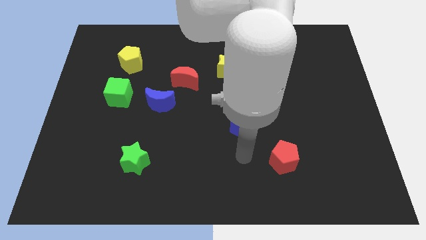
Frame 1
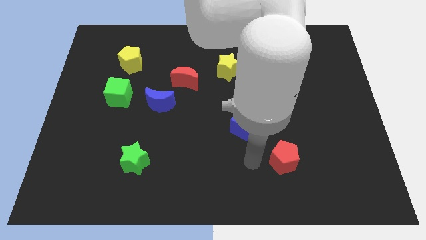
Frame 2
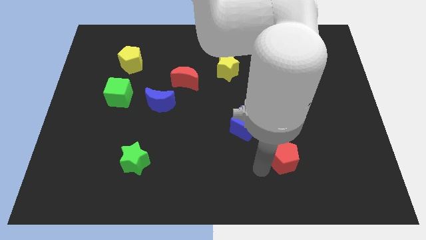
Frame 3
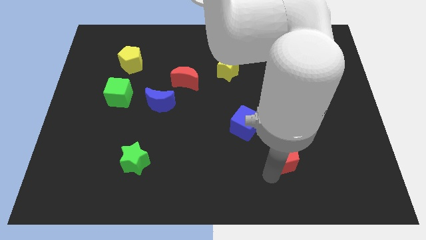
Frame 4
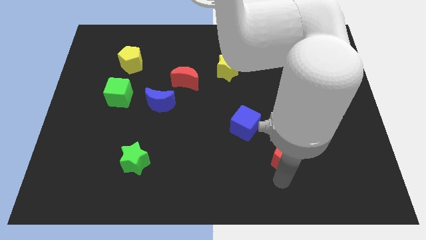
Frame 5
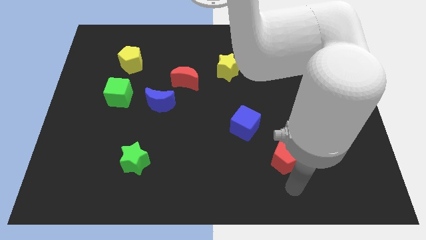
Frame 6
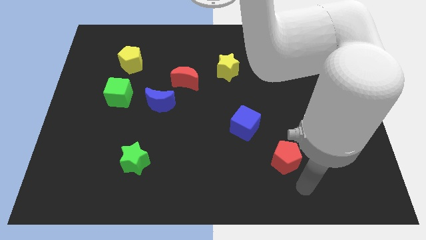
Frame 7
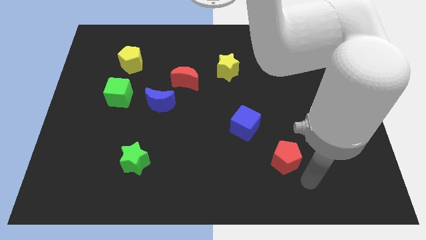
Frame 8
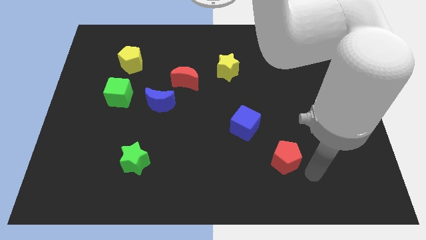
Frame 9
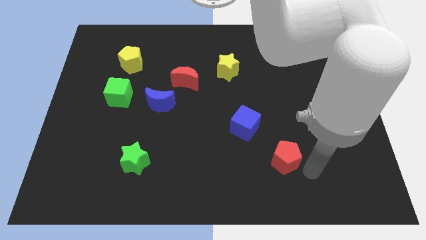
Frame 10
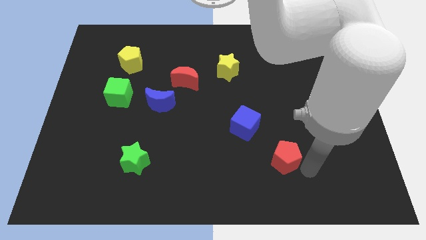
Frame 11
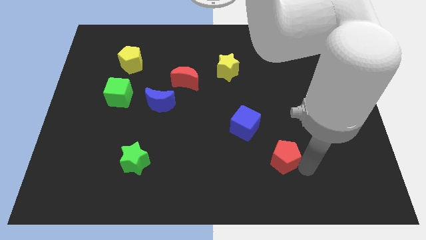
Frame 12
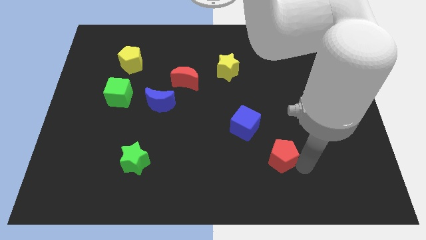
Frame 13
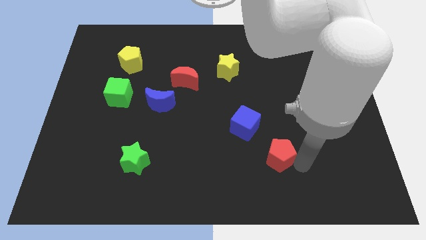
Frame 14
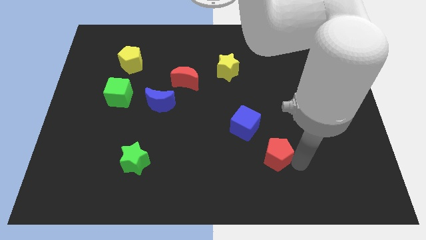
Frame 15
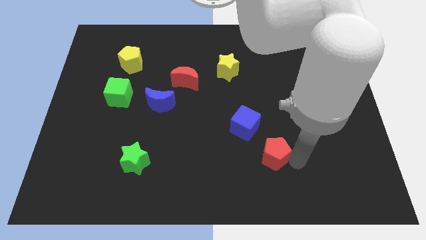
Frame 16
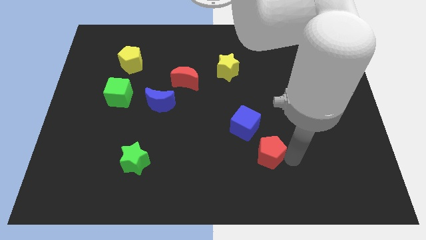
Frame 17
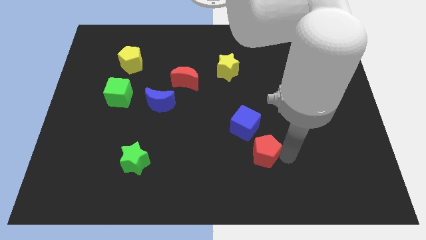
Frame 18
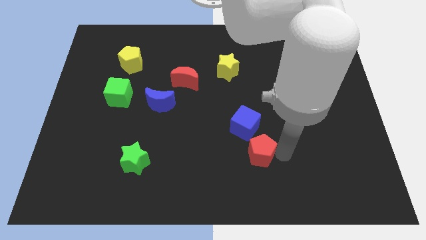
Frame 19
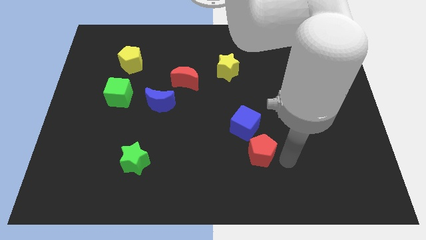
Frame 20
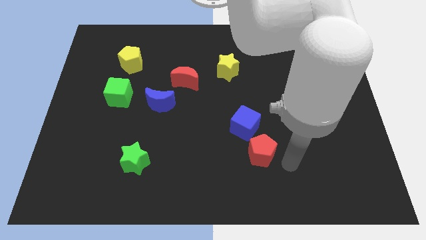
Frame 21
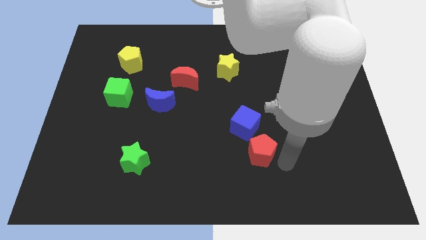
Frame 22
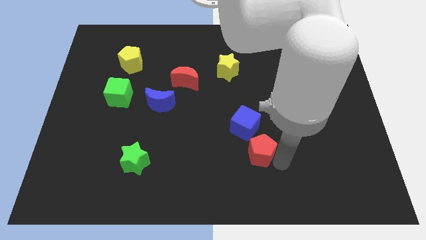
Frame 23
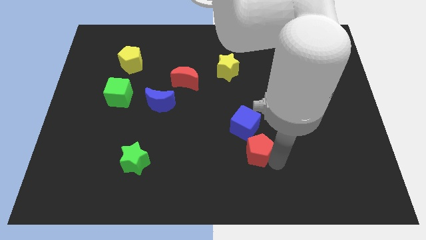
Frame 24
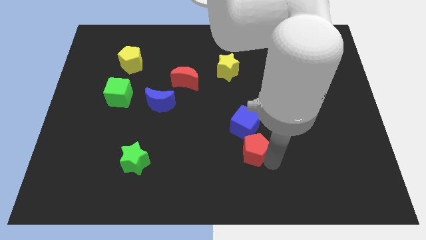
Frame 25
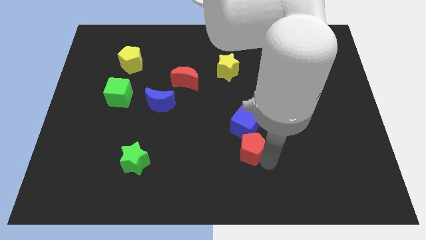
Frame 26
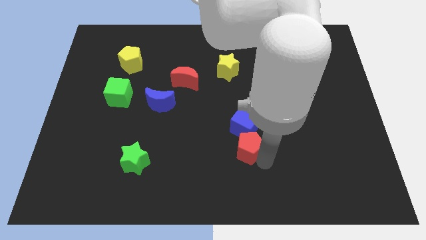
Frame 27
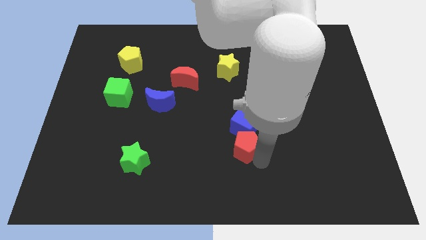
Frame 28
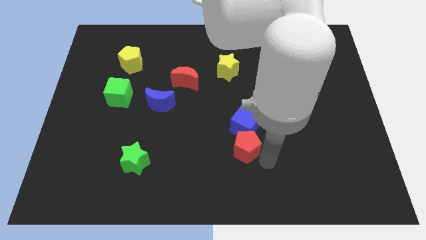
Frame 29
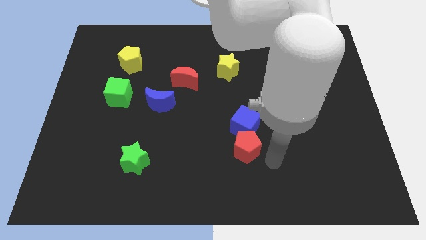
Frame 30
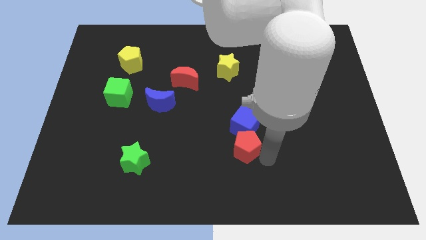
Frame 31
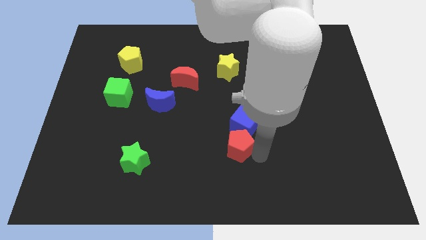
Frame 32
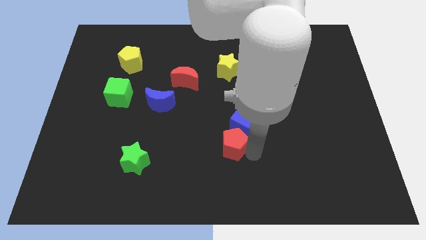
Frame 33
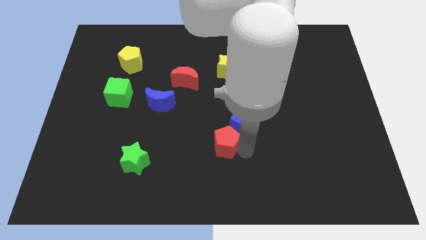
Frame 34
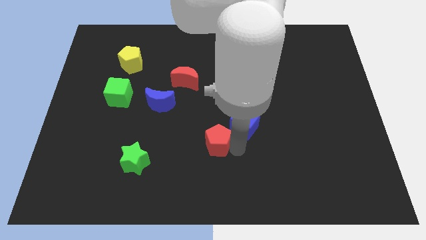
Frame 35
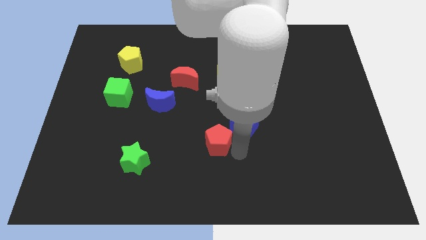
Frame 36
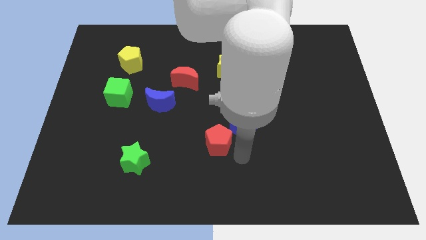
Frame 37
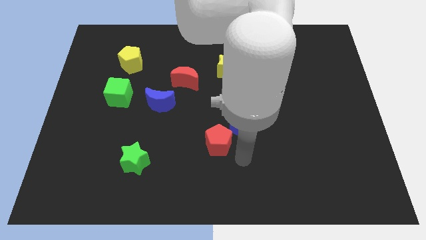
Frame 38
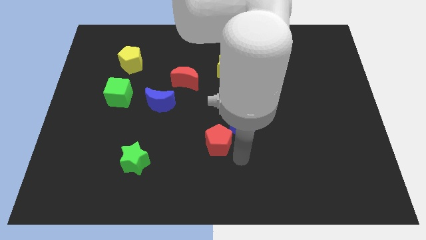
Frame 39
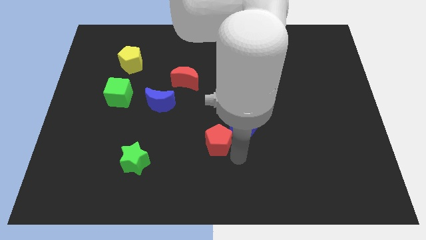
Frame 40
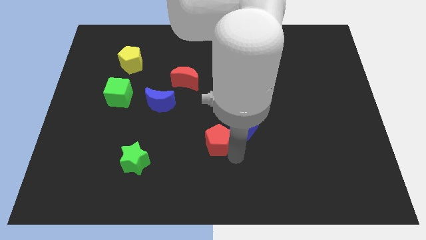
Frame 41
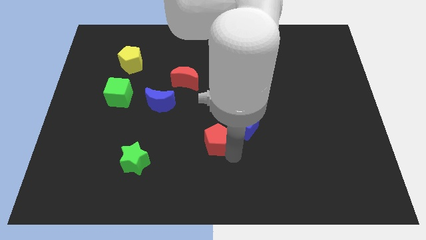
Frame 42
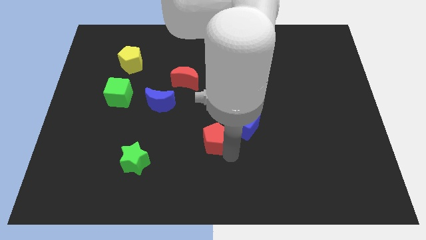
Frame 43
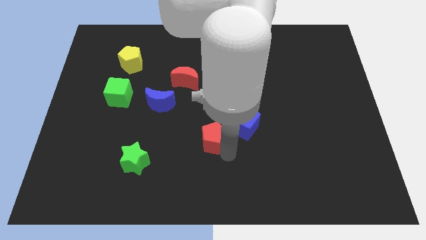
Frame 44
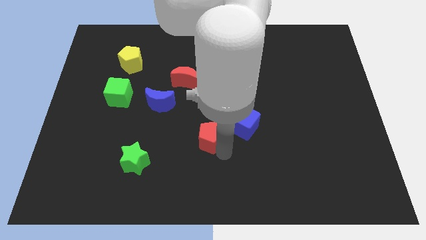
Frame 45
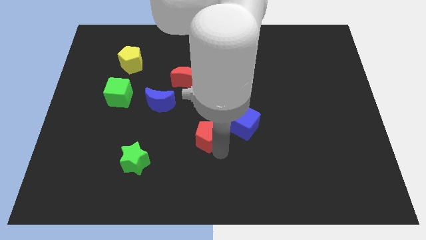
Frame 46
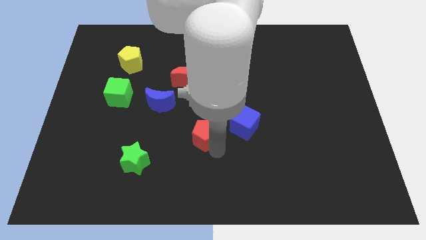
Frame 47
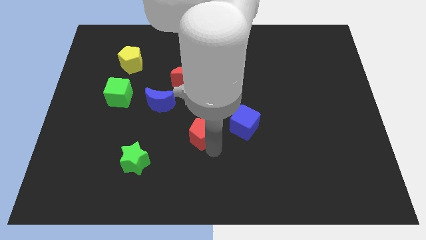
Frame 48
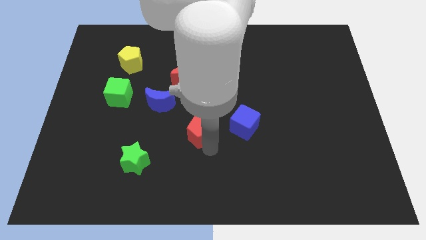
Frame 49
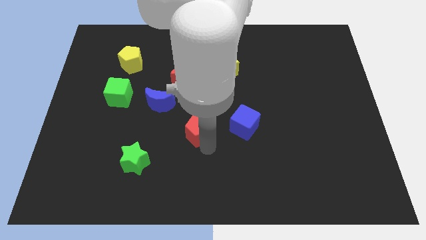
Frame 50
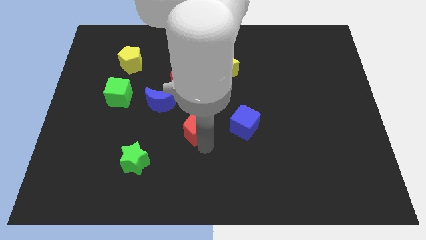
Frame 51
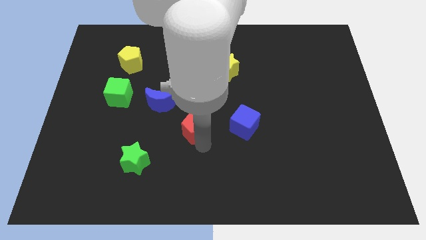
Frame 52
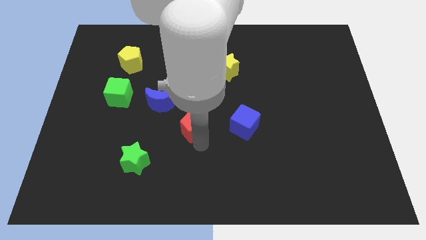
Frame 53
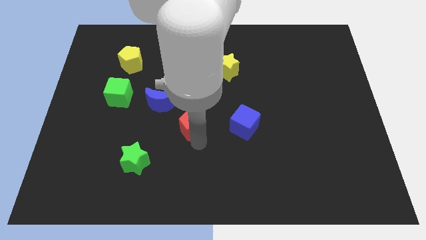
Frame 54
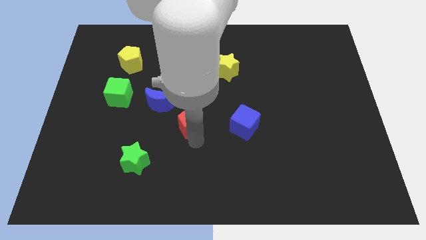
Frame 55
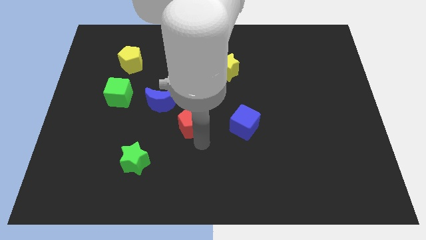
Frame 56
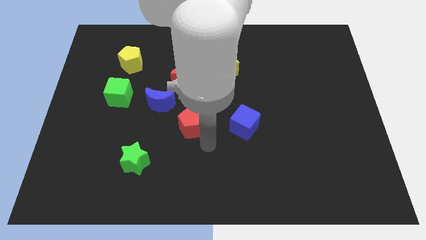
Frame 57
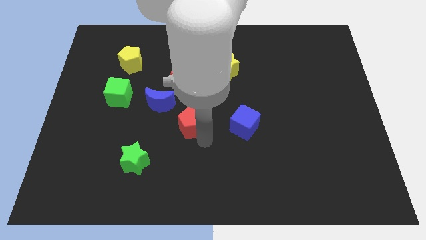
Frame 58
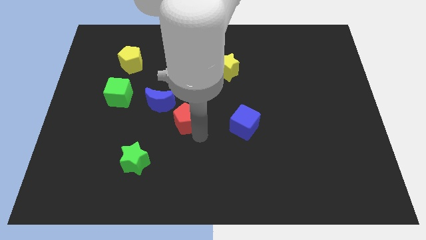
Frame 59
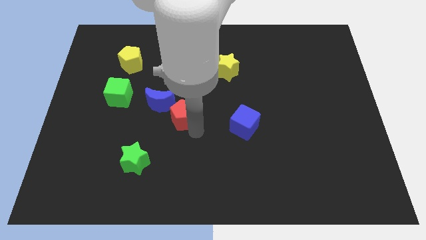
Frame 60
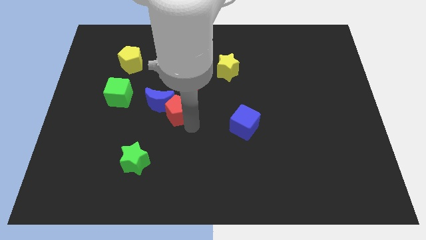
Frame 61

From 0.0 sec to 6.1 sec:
slide the red pentagon to the blue moon

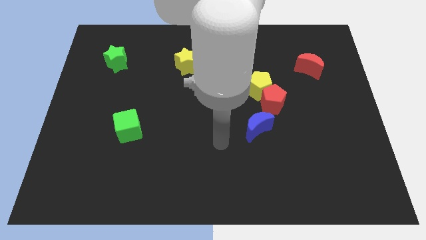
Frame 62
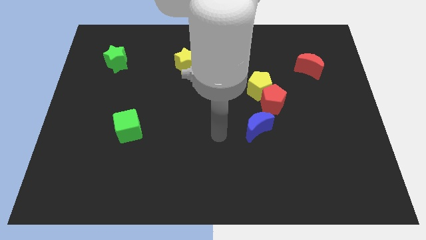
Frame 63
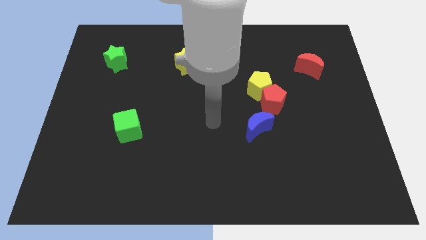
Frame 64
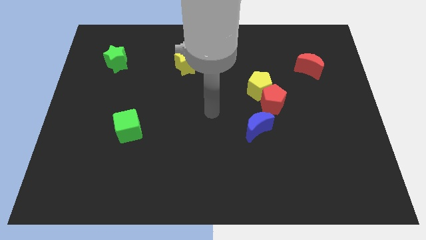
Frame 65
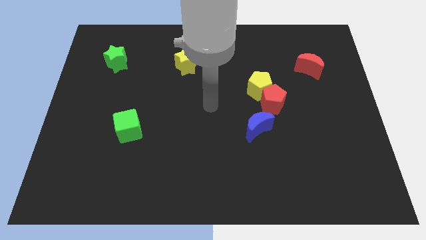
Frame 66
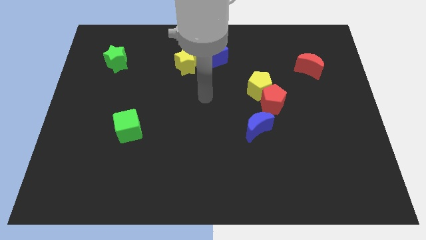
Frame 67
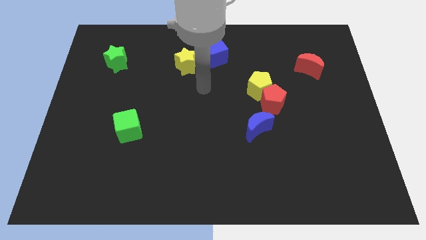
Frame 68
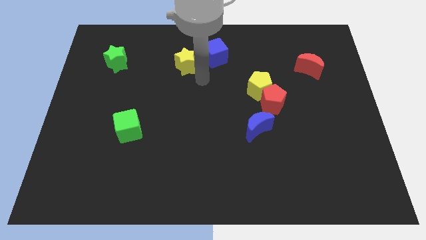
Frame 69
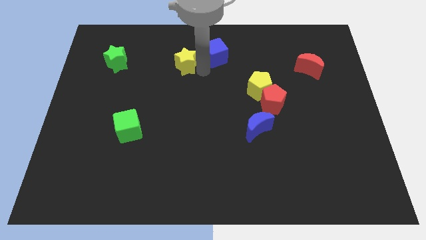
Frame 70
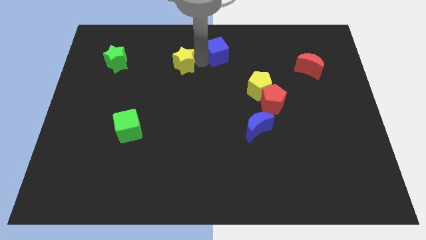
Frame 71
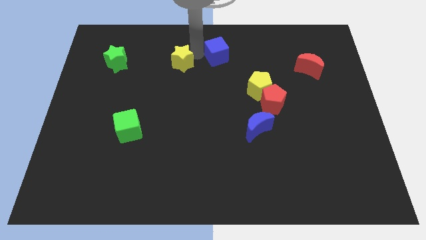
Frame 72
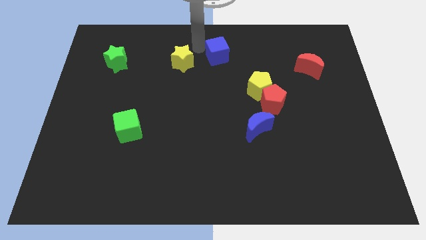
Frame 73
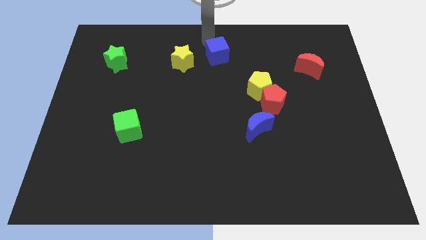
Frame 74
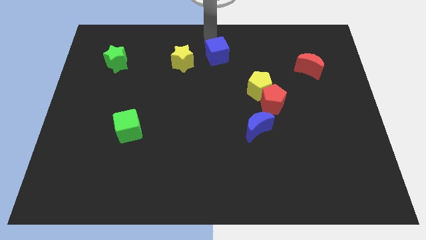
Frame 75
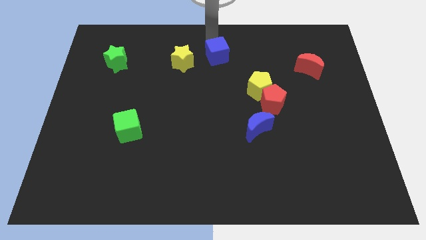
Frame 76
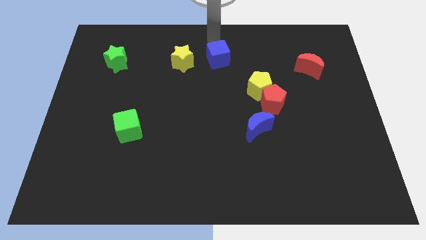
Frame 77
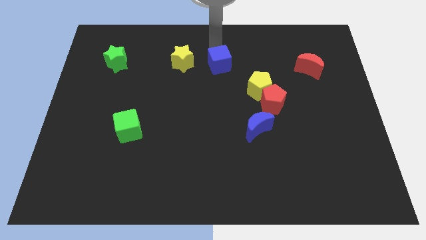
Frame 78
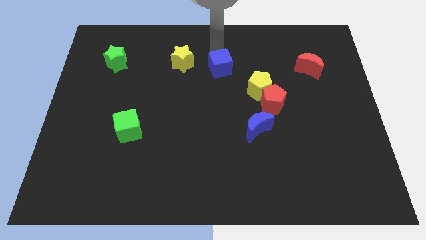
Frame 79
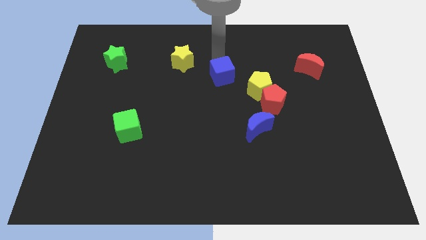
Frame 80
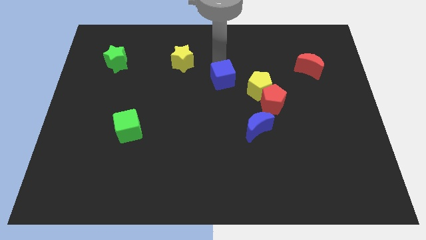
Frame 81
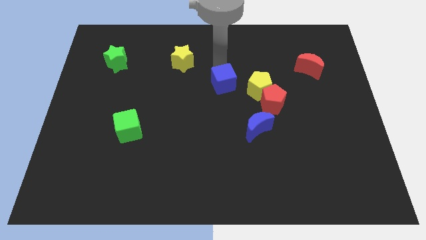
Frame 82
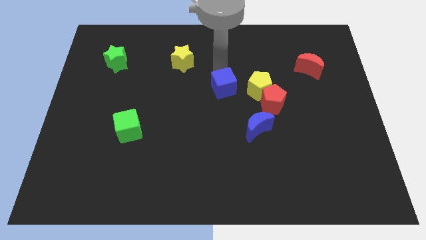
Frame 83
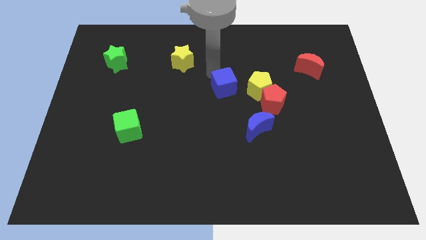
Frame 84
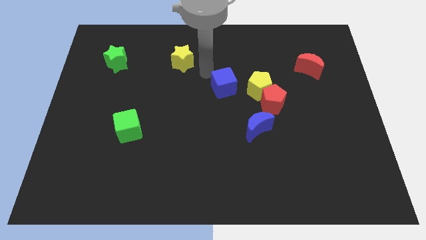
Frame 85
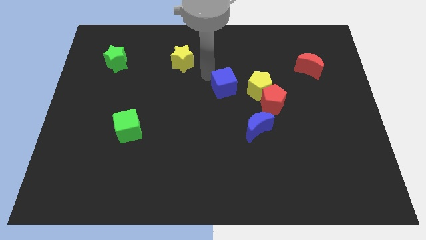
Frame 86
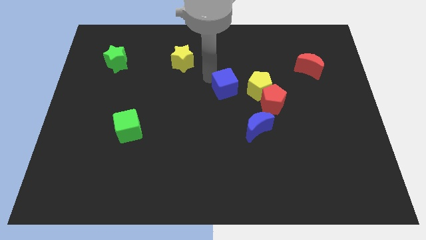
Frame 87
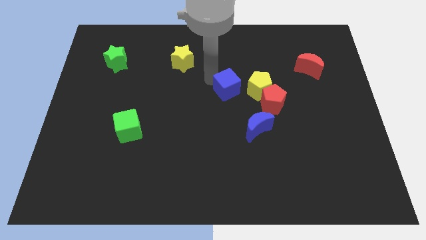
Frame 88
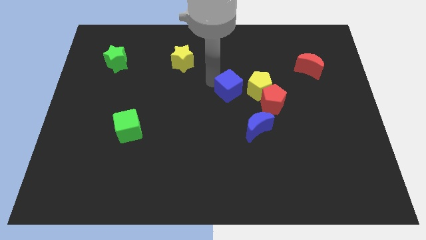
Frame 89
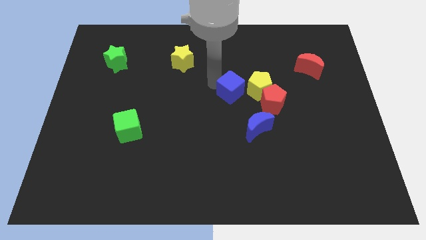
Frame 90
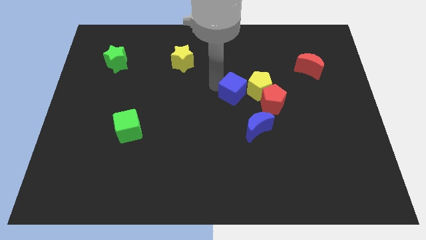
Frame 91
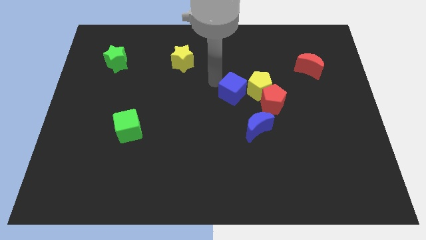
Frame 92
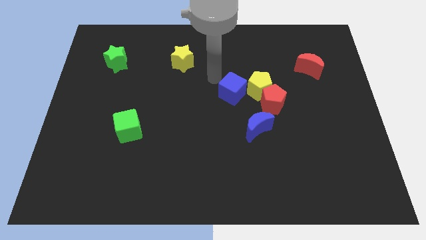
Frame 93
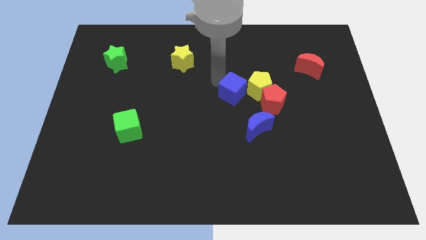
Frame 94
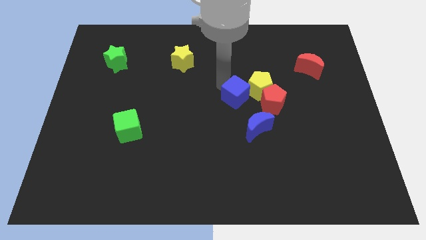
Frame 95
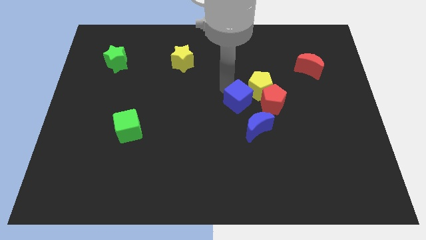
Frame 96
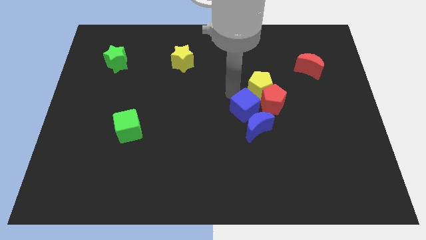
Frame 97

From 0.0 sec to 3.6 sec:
slide the blue cube to the blue moon
